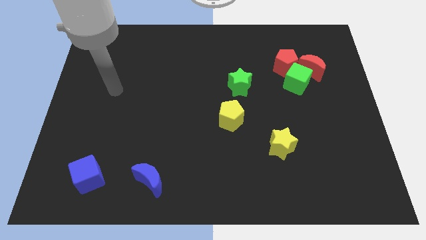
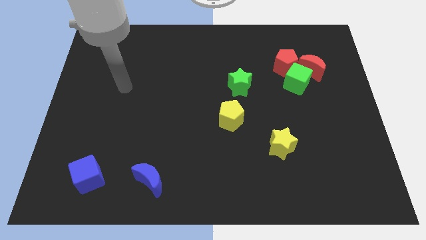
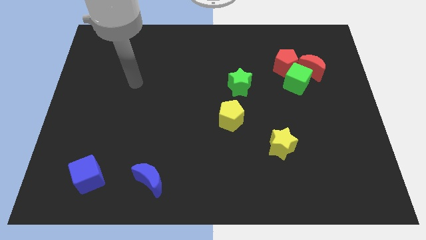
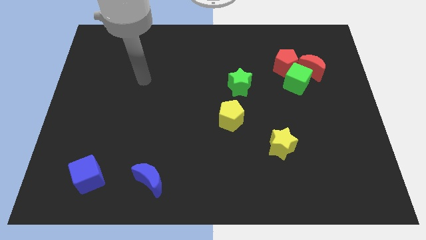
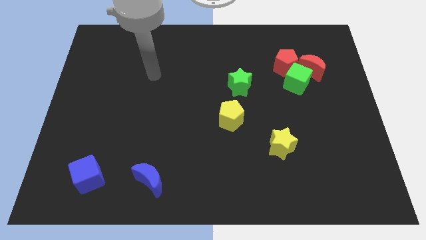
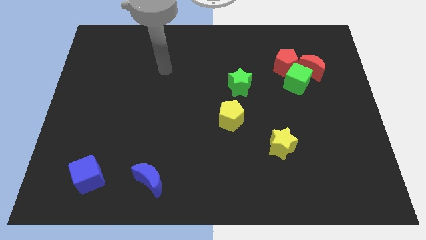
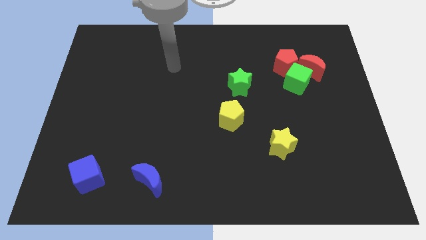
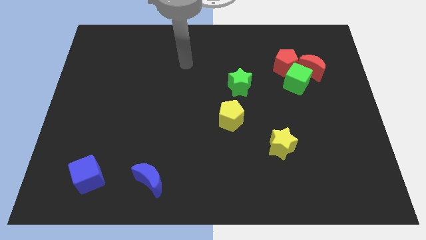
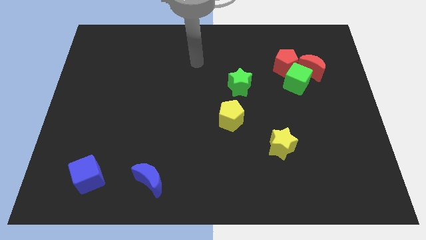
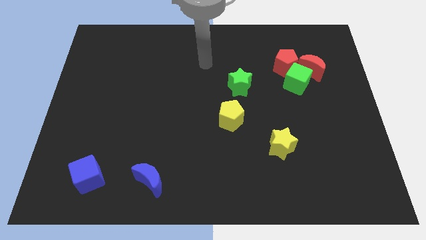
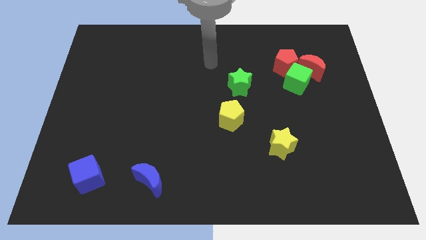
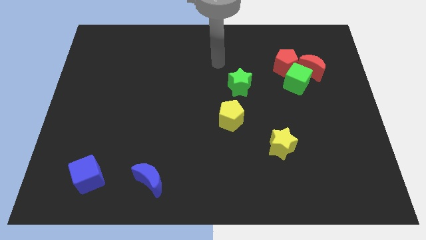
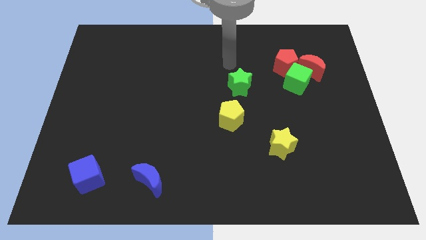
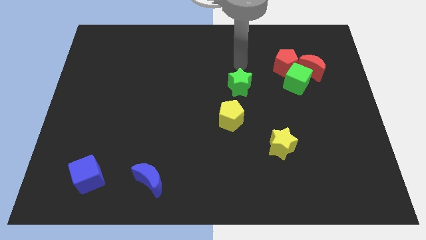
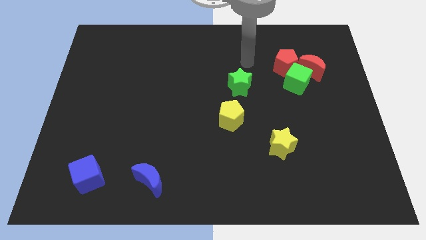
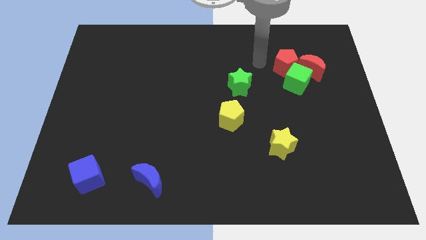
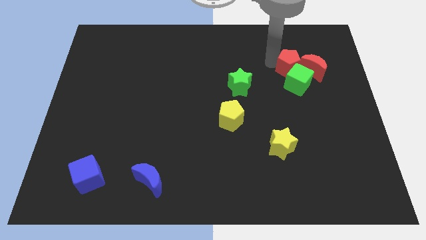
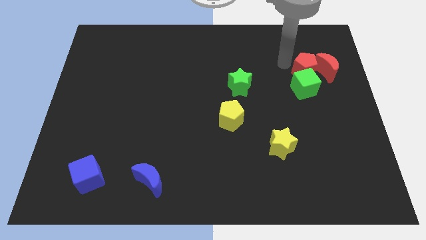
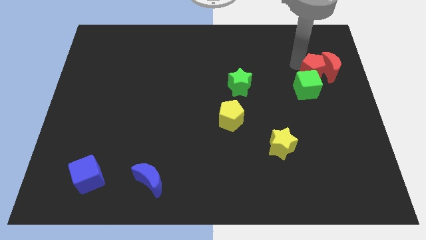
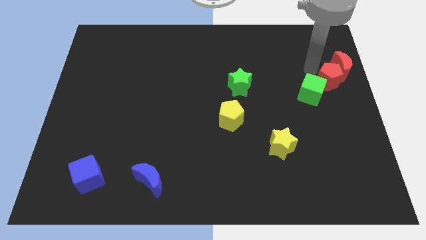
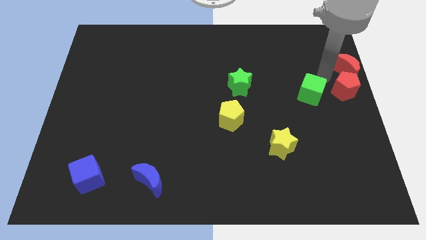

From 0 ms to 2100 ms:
move the green cube away from the red pentagon and red moon

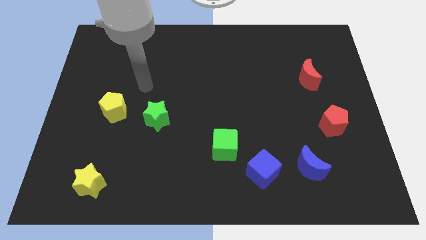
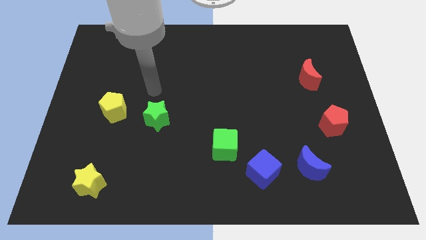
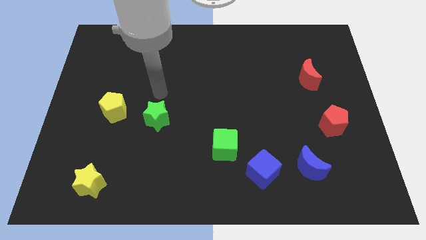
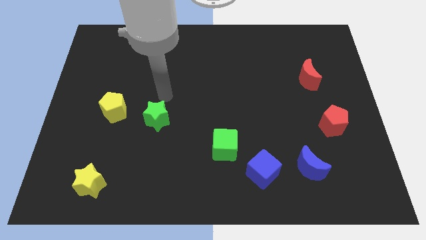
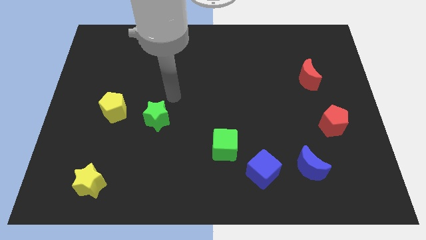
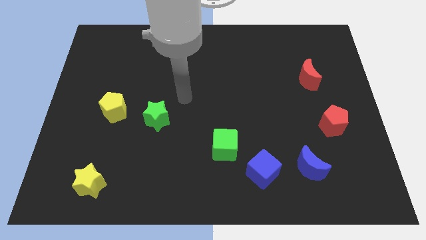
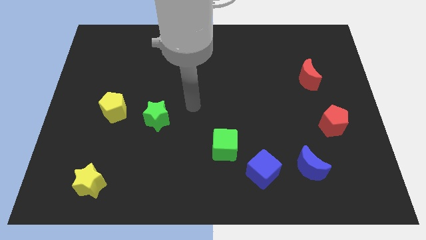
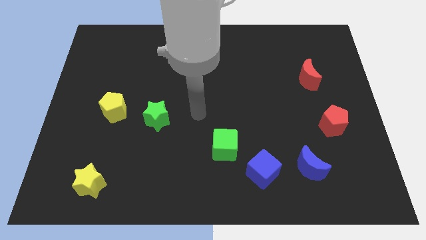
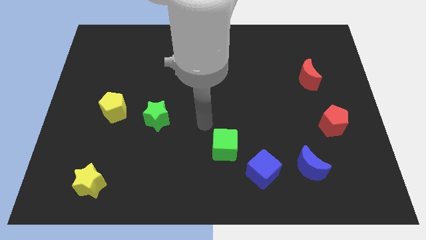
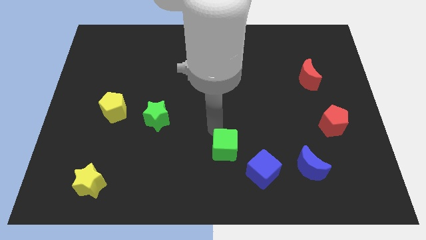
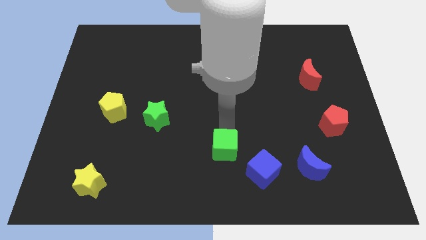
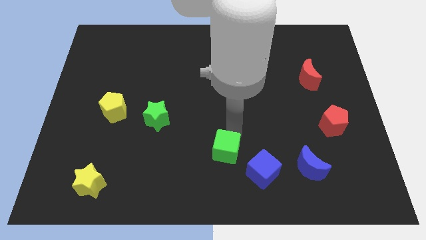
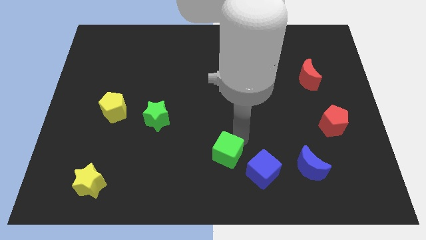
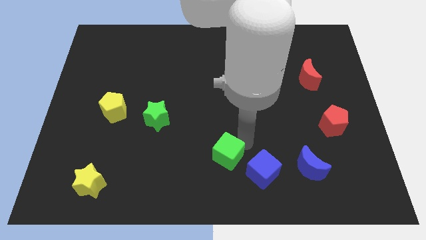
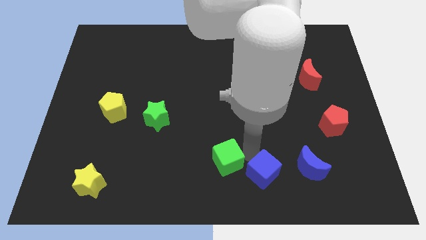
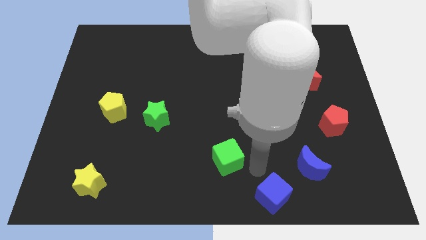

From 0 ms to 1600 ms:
move the green cube away from the blue cube

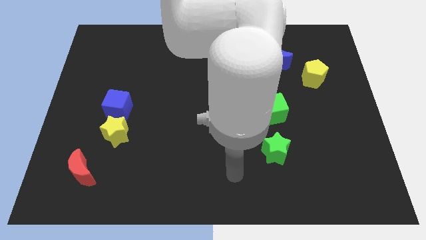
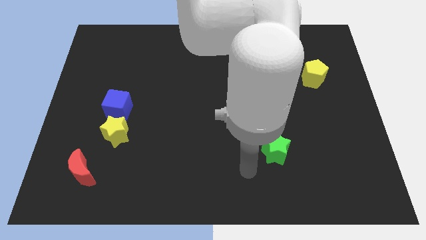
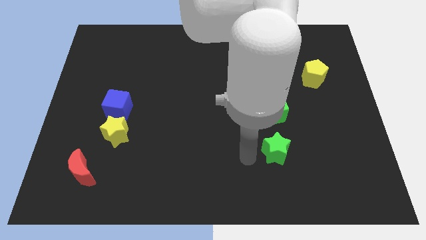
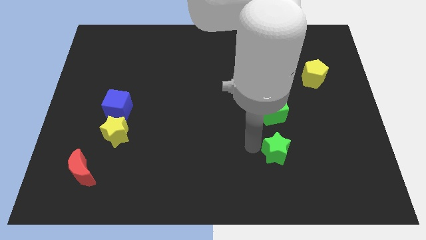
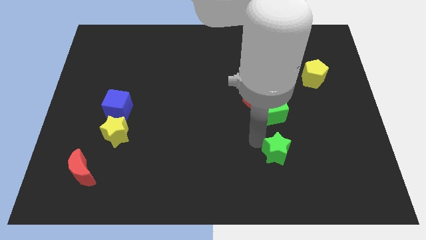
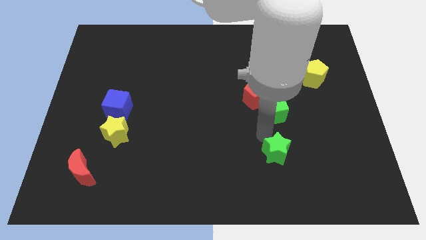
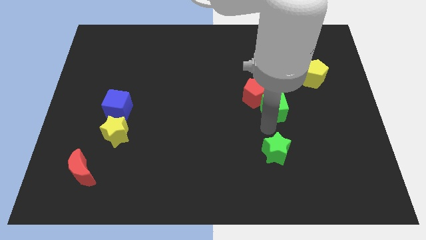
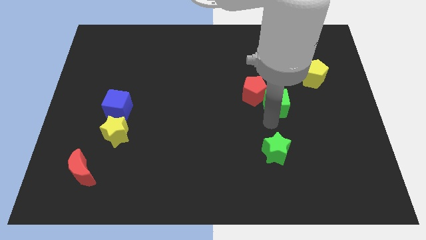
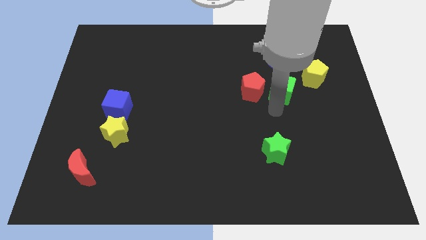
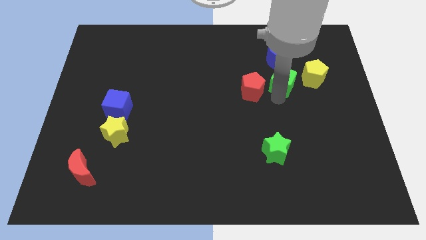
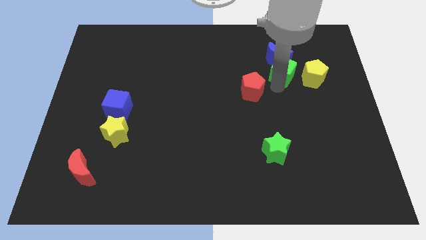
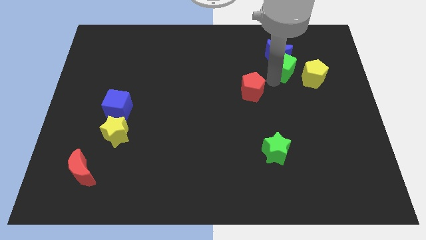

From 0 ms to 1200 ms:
separate the red pentagon from the green cube

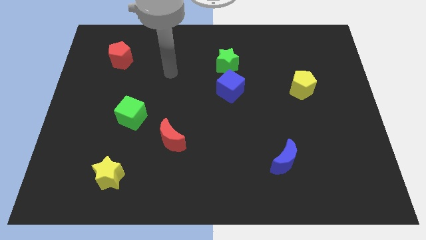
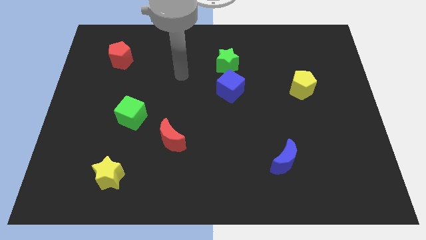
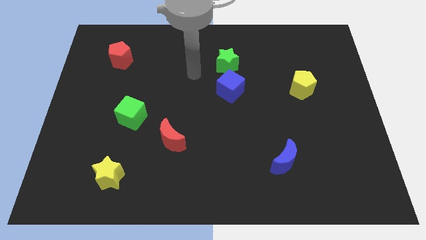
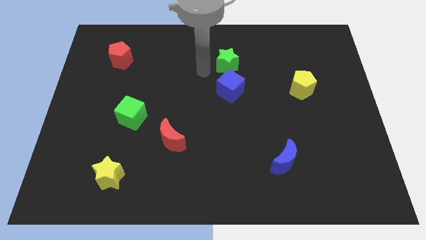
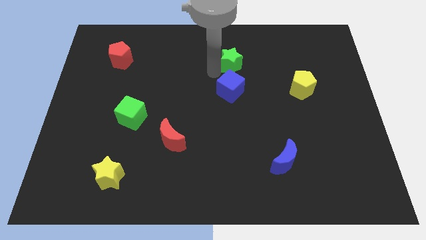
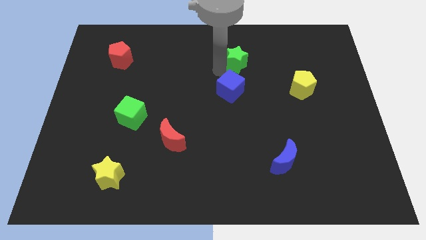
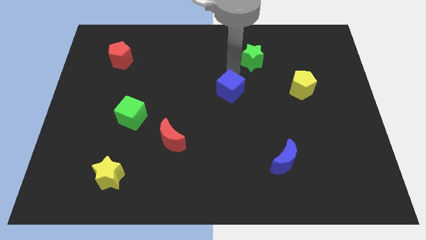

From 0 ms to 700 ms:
pull the blue cube apart from the green star

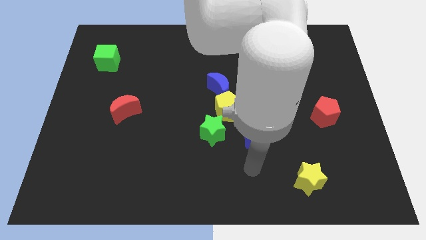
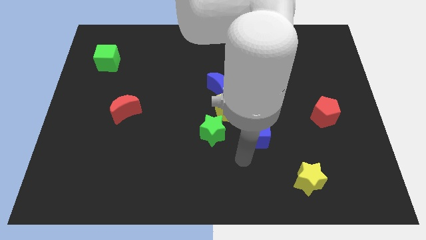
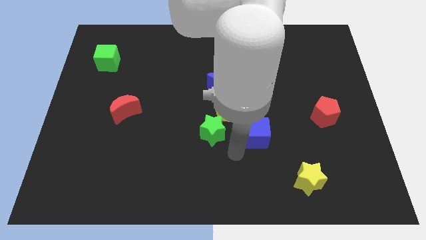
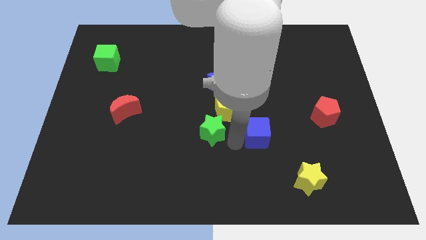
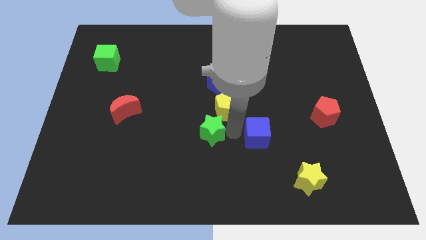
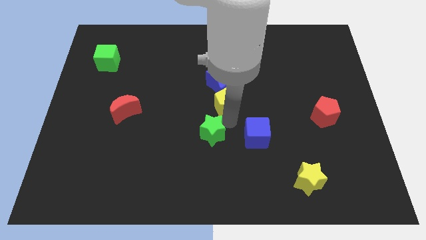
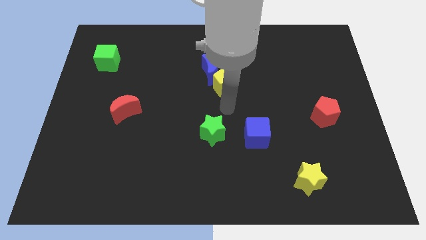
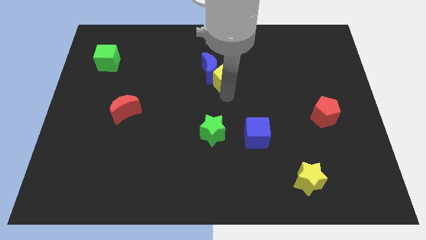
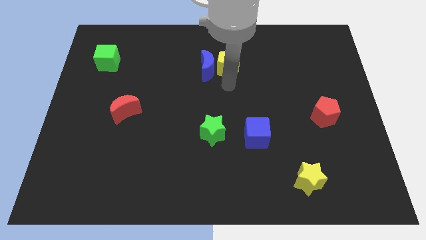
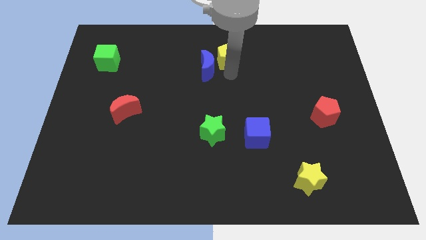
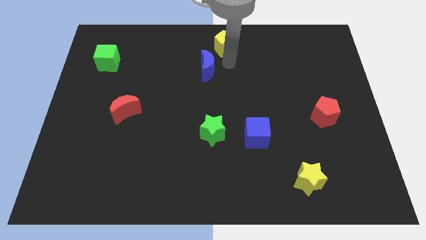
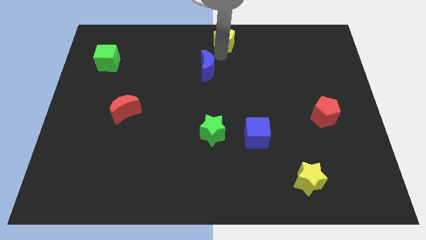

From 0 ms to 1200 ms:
separate the blue moon from the yellow pentagon

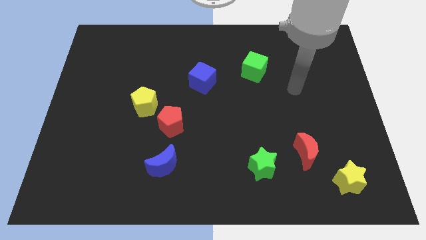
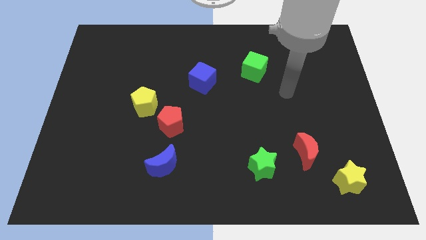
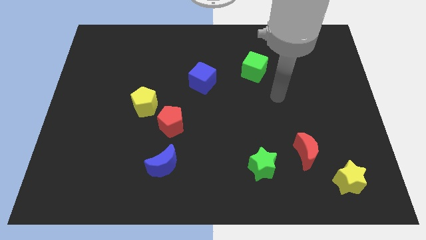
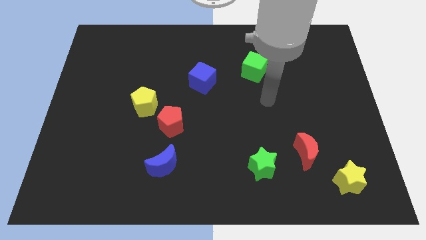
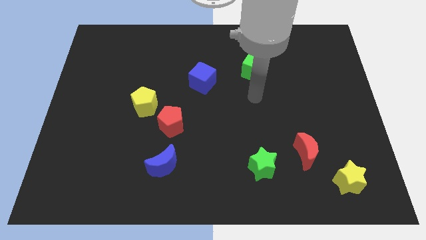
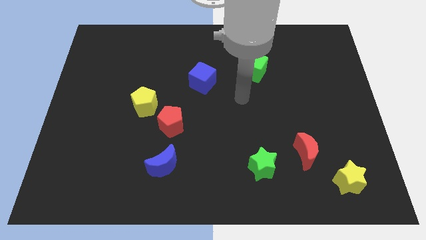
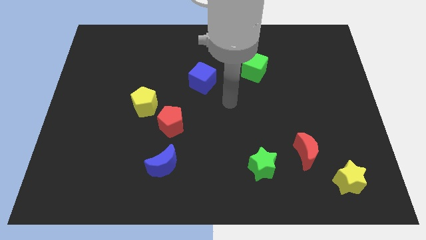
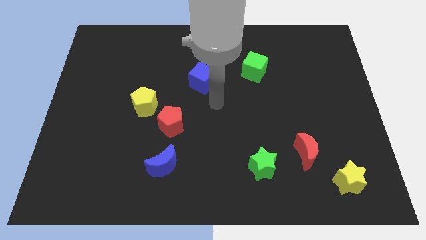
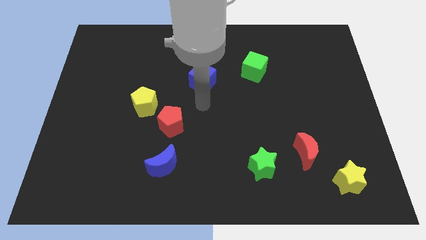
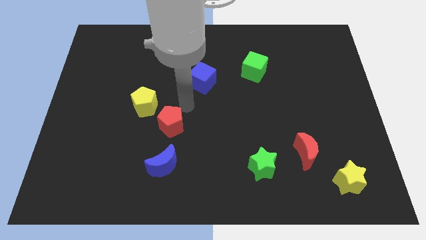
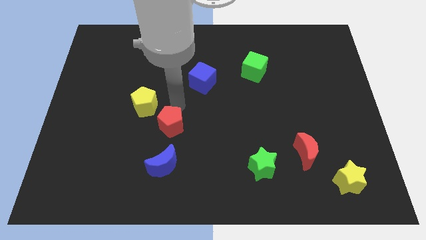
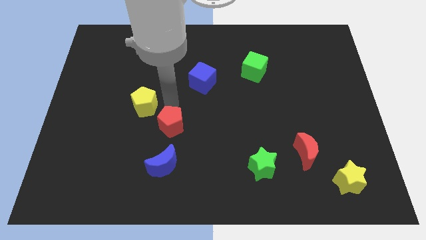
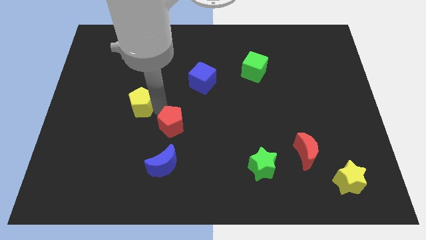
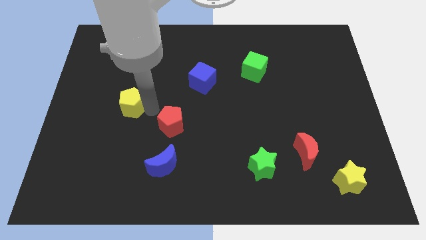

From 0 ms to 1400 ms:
pull the red pentagon apart from the yellow pentagon

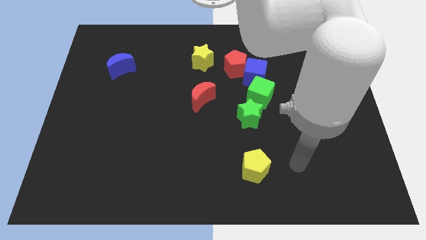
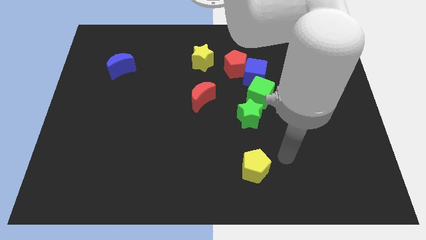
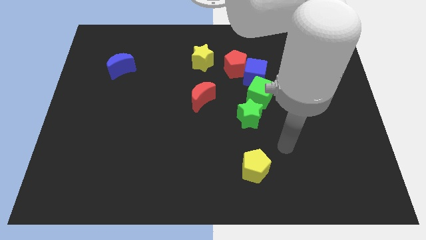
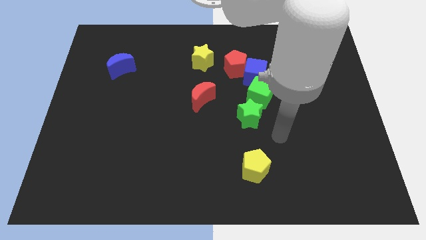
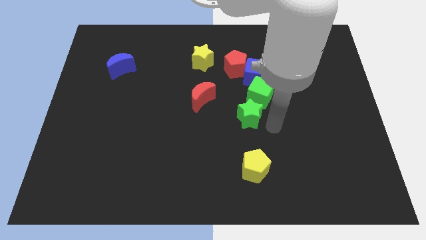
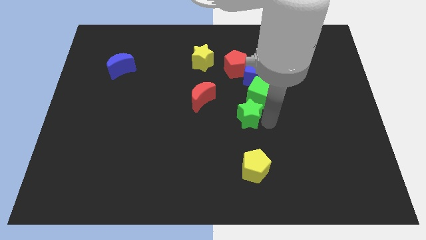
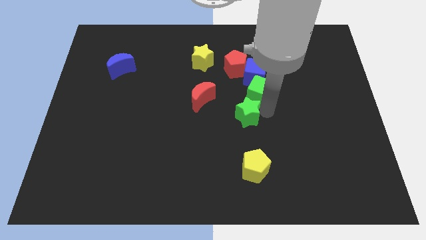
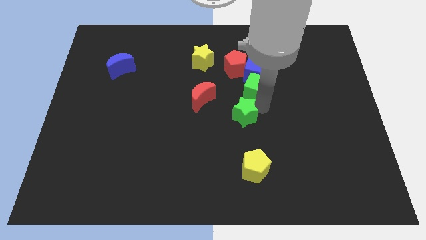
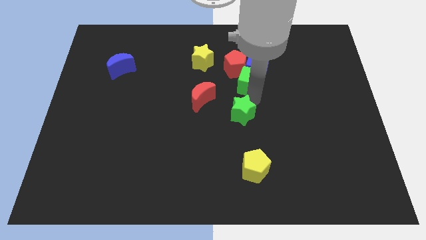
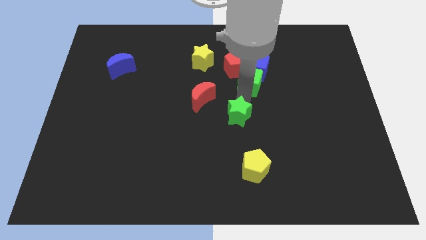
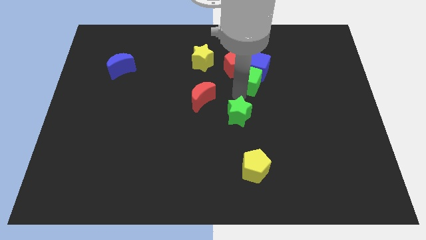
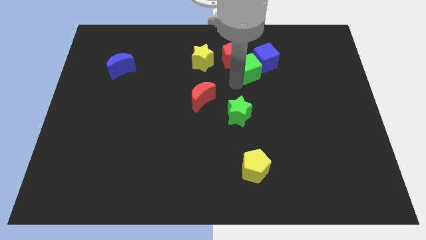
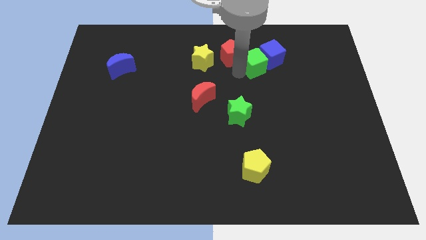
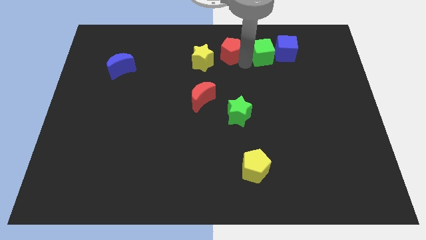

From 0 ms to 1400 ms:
pull the blue cube apart from the red pentagon and green cube
